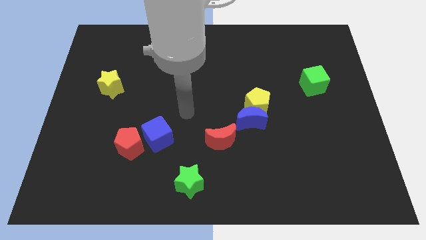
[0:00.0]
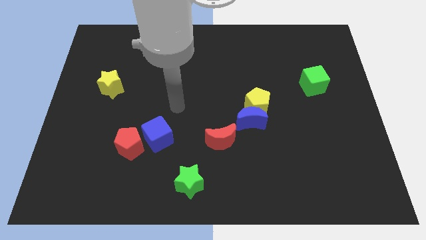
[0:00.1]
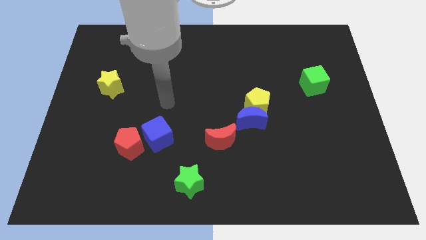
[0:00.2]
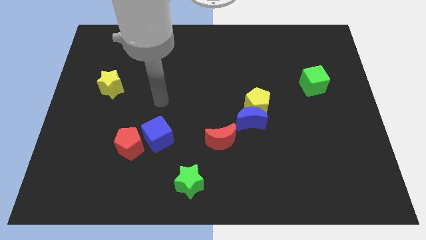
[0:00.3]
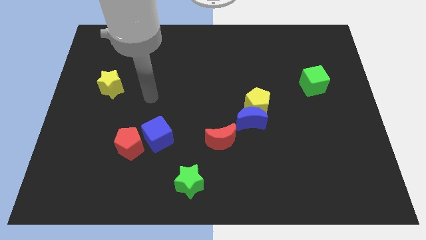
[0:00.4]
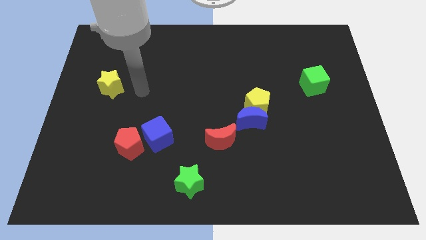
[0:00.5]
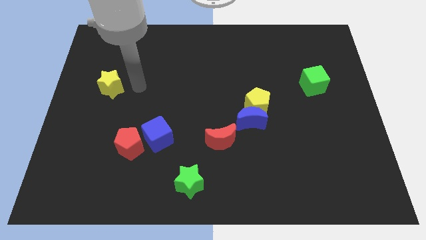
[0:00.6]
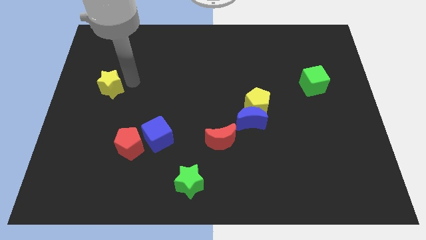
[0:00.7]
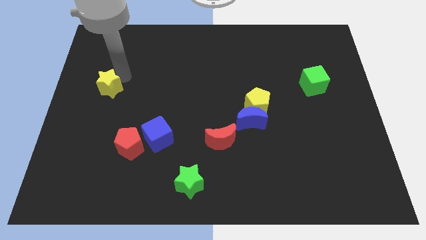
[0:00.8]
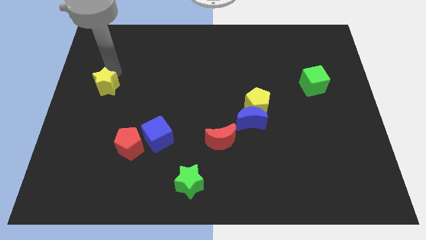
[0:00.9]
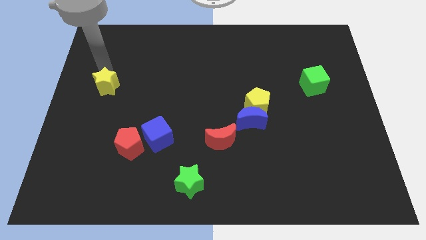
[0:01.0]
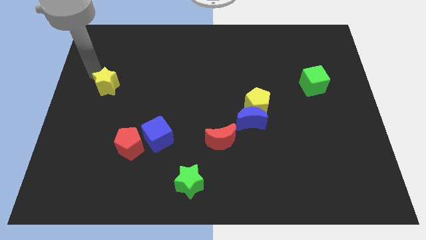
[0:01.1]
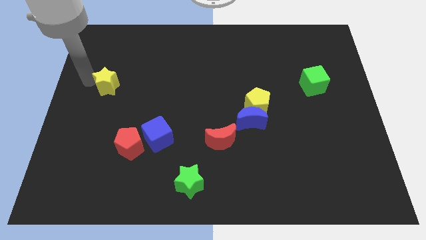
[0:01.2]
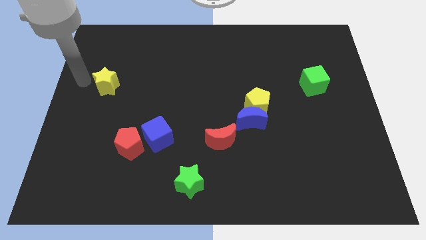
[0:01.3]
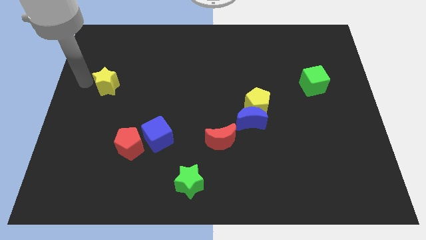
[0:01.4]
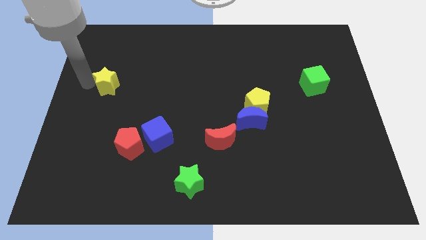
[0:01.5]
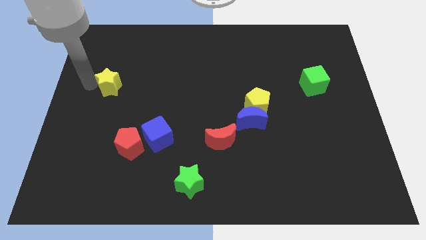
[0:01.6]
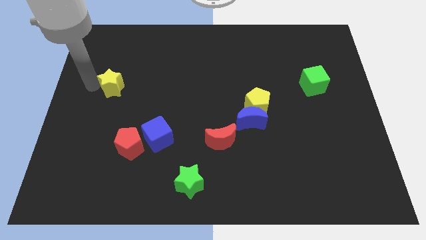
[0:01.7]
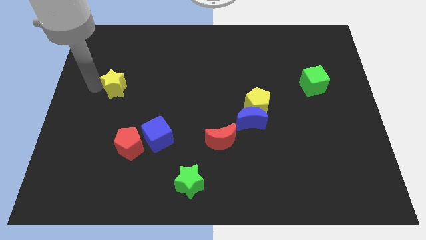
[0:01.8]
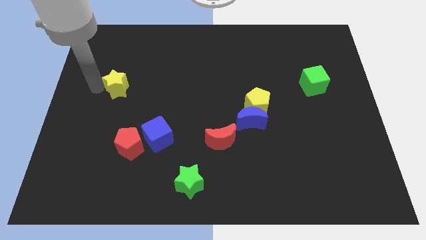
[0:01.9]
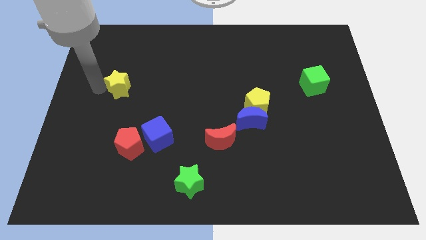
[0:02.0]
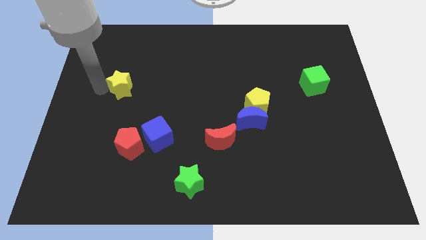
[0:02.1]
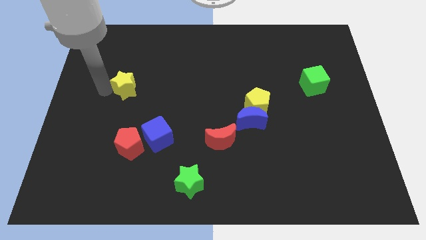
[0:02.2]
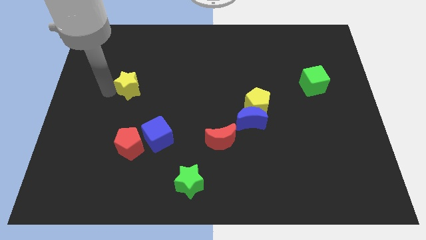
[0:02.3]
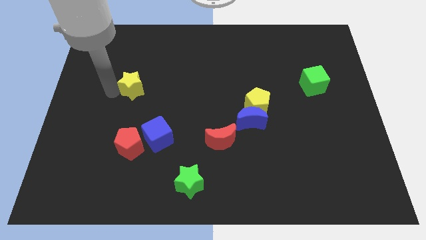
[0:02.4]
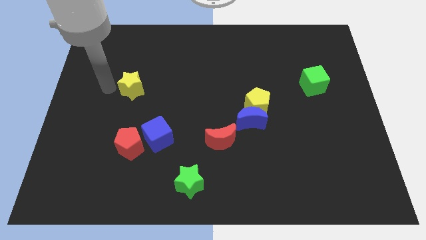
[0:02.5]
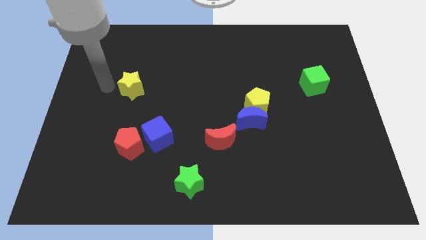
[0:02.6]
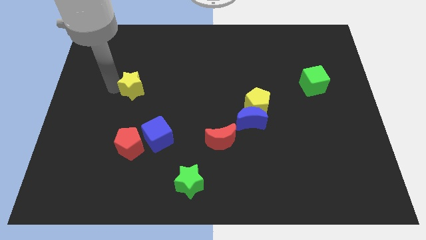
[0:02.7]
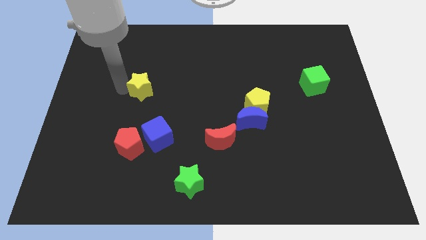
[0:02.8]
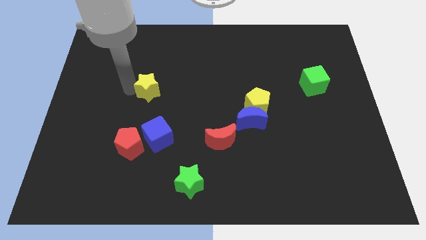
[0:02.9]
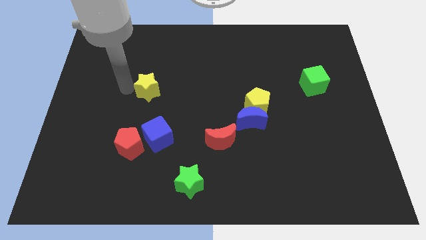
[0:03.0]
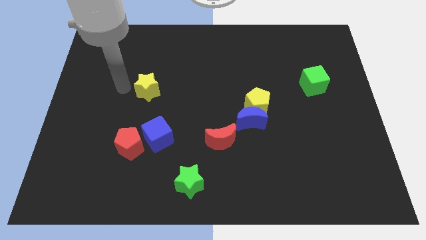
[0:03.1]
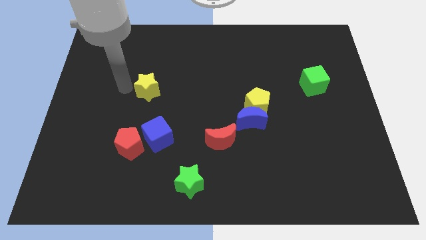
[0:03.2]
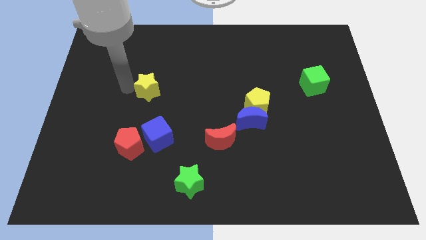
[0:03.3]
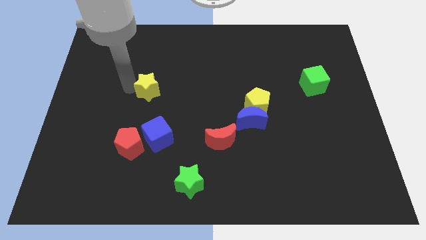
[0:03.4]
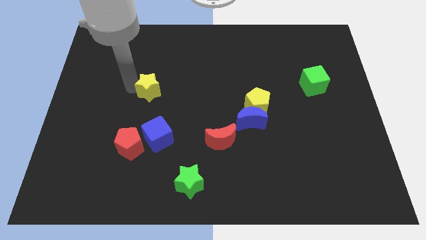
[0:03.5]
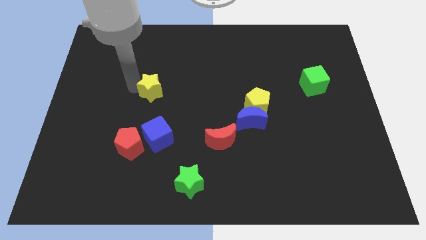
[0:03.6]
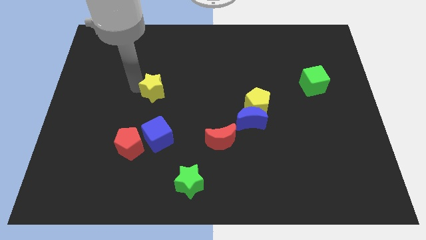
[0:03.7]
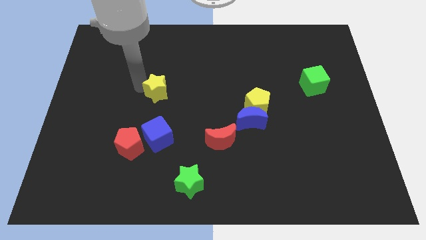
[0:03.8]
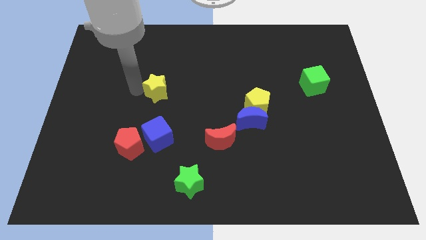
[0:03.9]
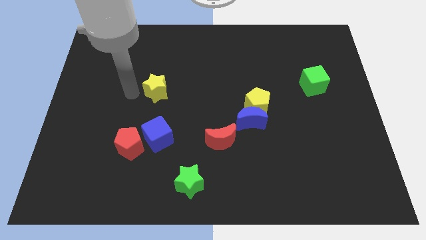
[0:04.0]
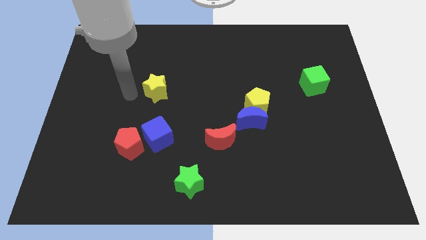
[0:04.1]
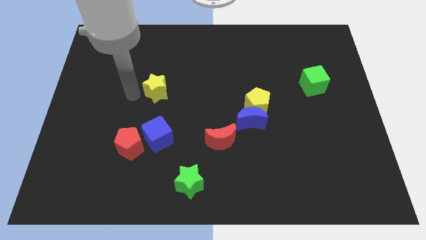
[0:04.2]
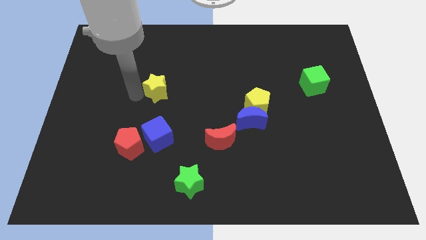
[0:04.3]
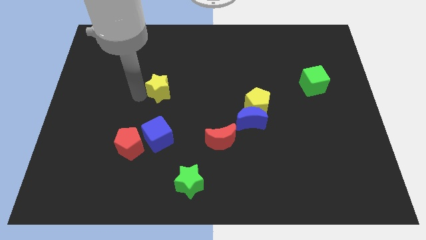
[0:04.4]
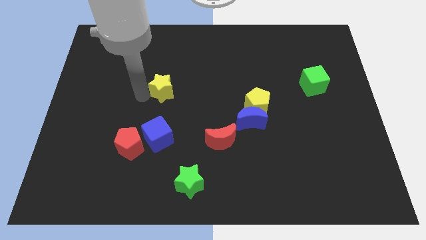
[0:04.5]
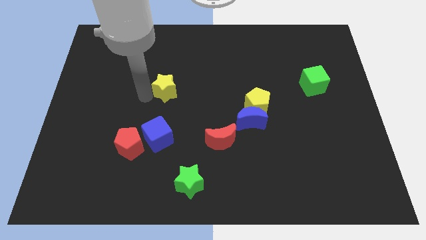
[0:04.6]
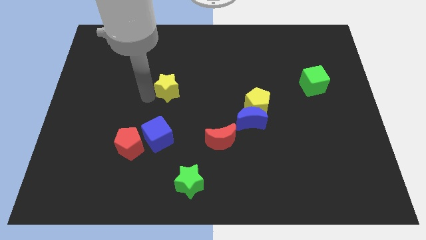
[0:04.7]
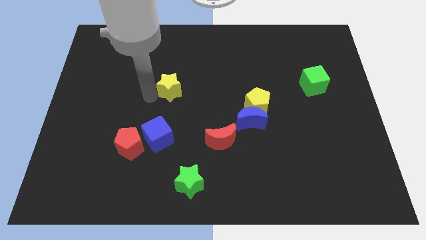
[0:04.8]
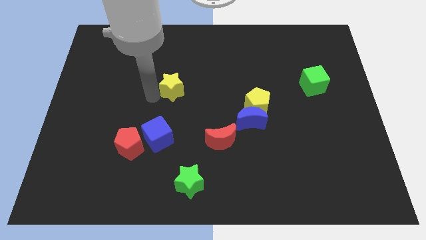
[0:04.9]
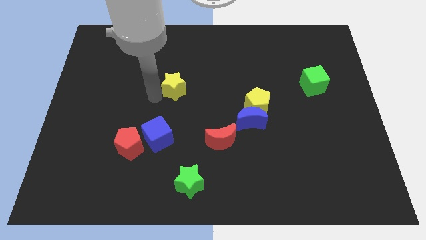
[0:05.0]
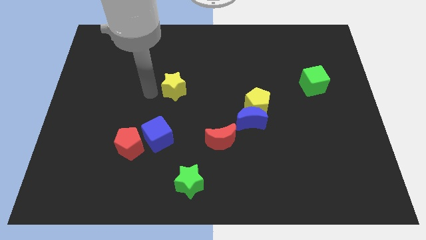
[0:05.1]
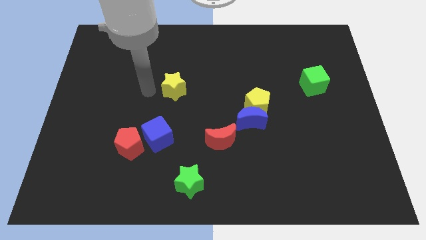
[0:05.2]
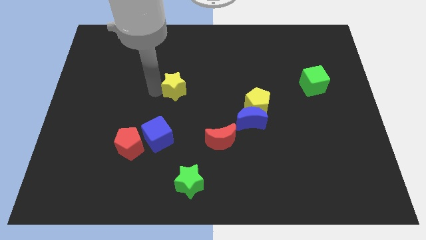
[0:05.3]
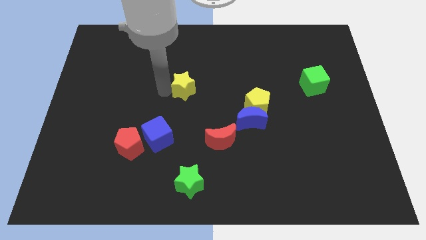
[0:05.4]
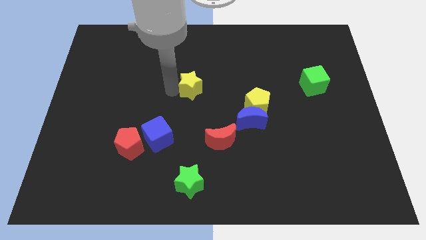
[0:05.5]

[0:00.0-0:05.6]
move the yellow star to the right

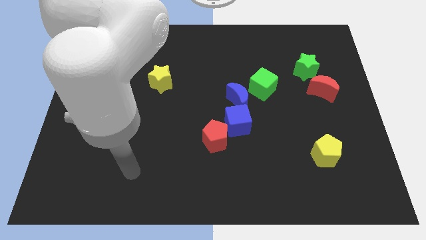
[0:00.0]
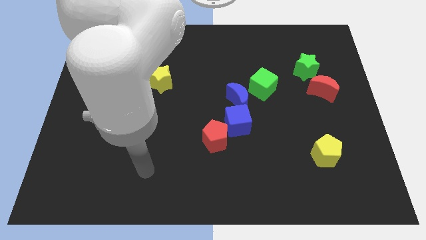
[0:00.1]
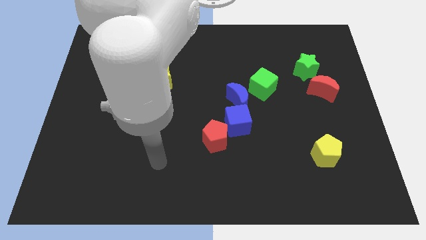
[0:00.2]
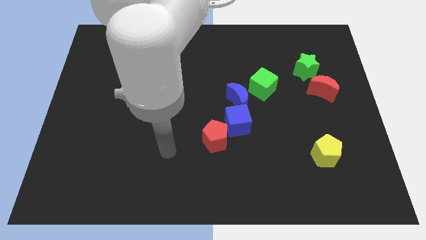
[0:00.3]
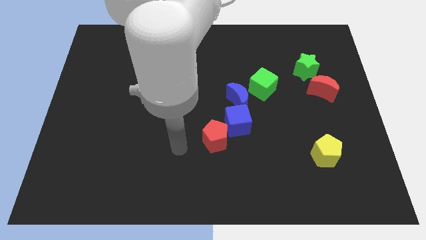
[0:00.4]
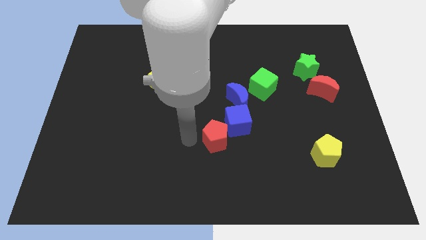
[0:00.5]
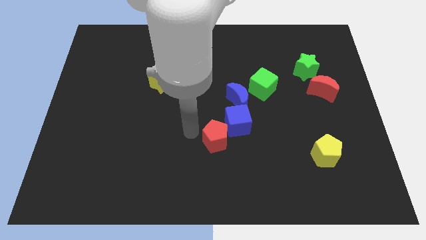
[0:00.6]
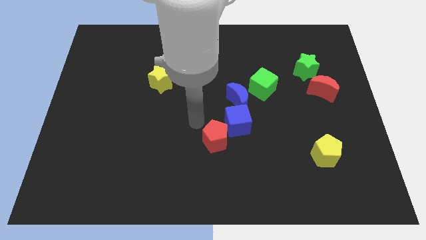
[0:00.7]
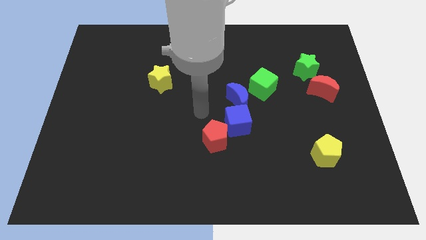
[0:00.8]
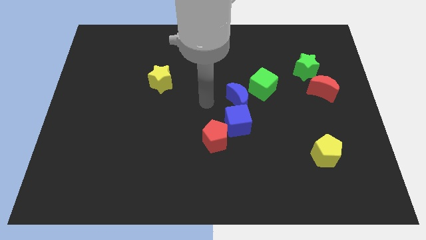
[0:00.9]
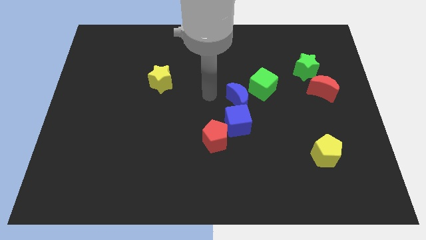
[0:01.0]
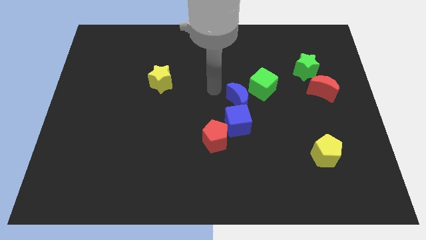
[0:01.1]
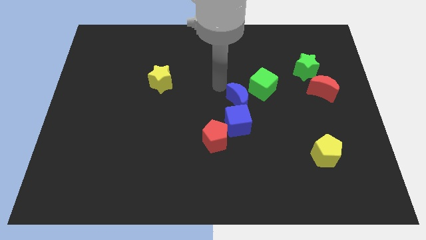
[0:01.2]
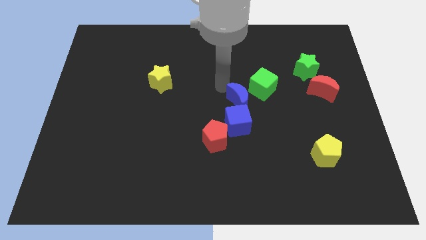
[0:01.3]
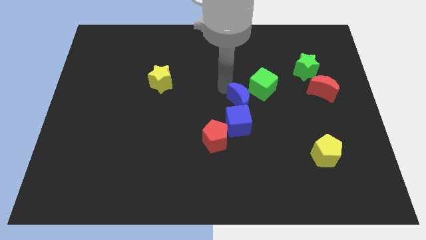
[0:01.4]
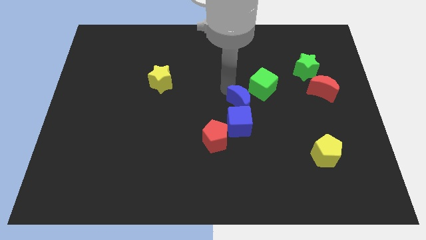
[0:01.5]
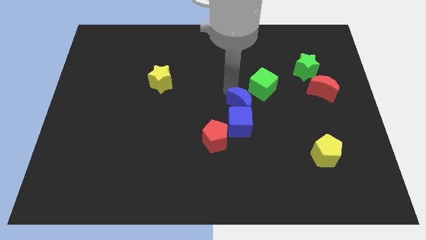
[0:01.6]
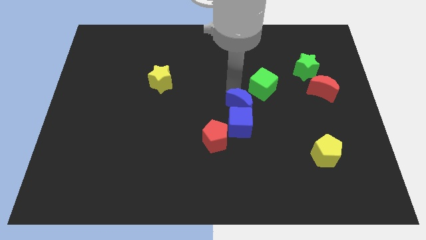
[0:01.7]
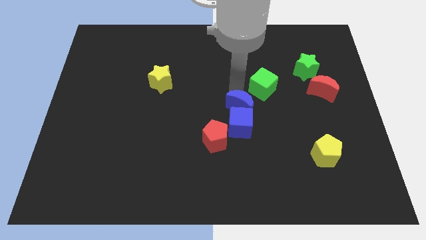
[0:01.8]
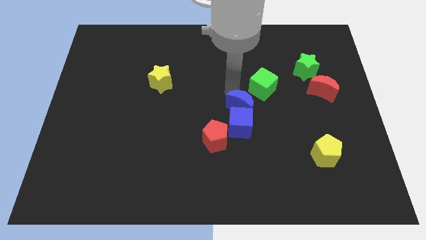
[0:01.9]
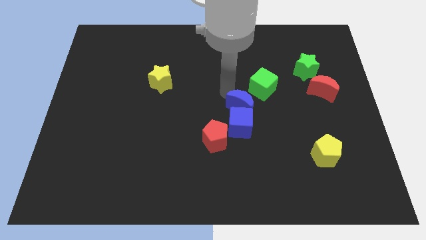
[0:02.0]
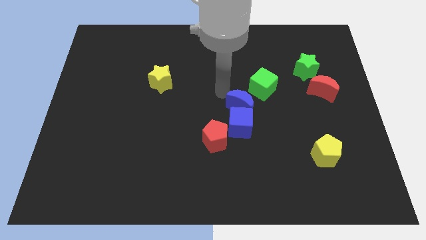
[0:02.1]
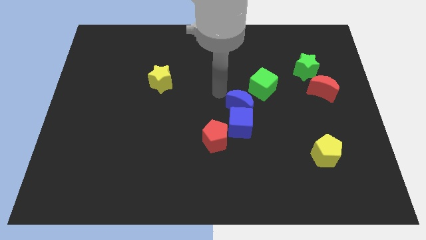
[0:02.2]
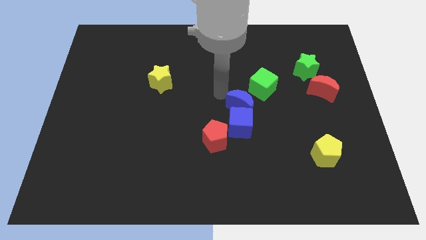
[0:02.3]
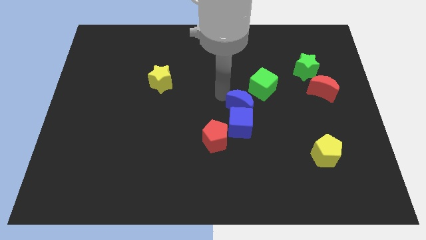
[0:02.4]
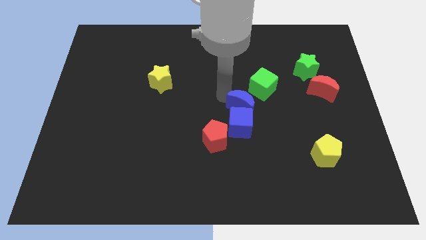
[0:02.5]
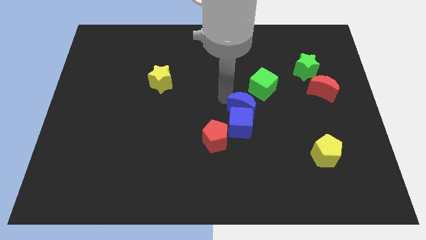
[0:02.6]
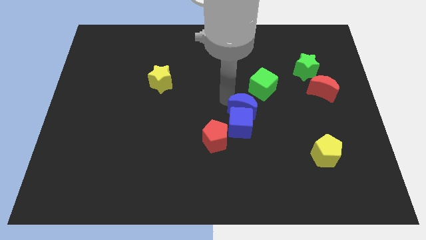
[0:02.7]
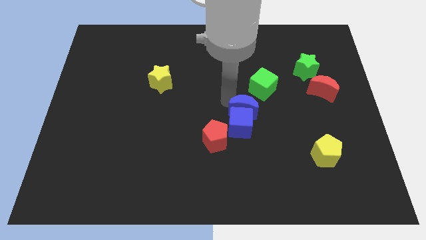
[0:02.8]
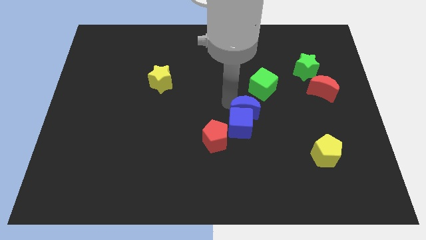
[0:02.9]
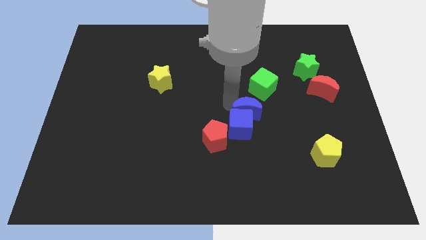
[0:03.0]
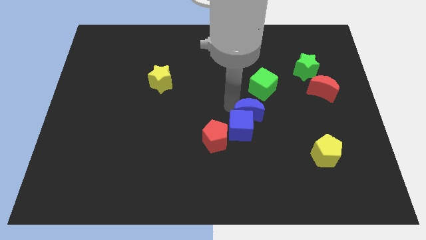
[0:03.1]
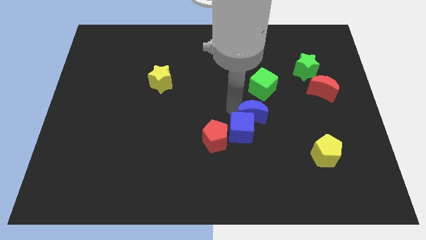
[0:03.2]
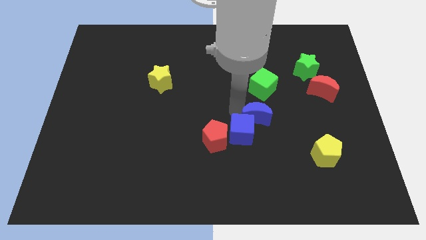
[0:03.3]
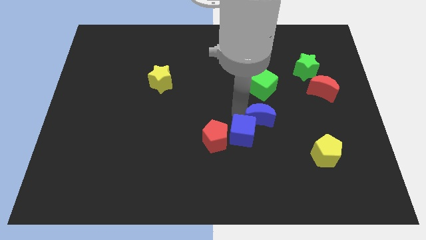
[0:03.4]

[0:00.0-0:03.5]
slide the blue moon a little bit down and then right
